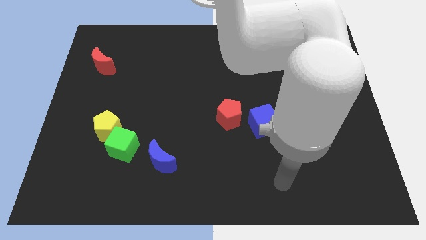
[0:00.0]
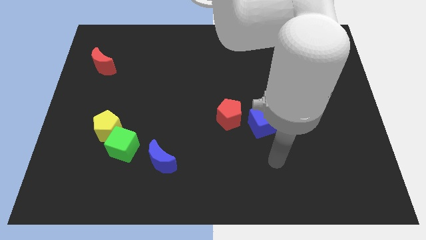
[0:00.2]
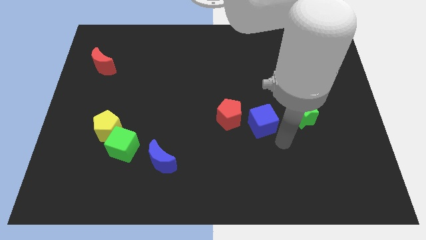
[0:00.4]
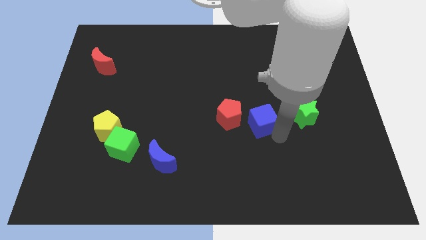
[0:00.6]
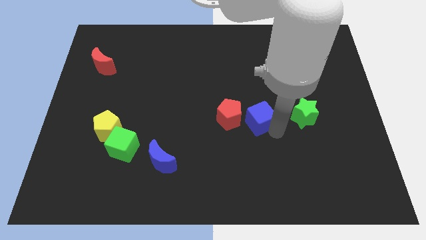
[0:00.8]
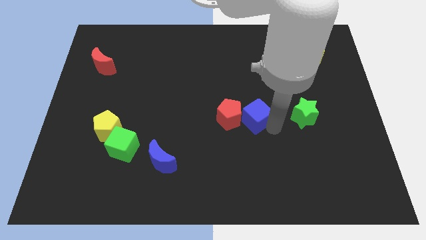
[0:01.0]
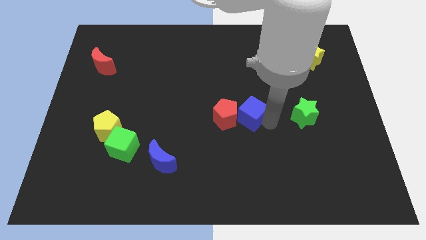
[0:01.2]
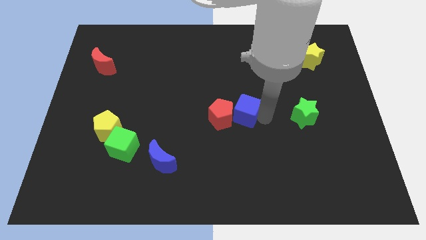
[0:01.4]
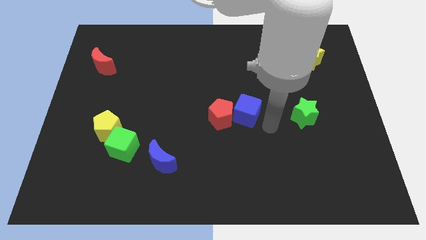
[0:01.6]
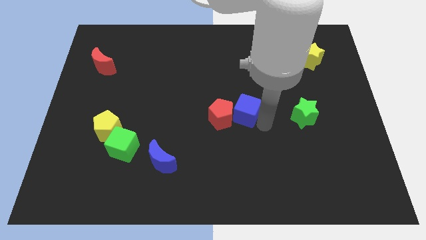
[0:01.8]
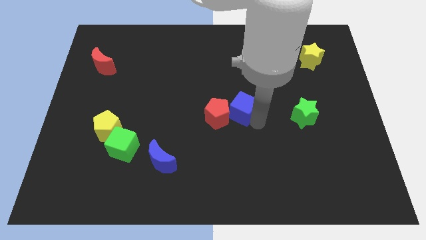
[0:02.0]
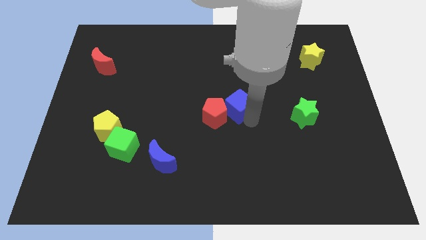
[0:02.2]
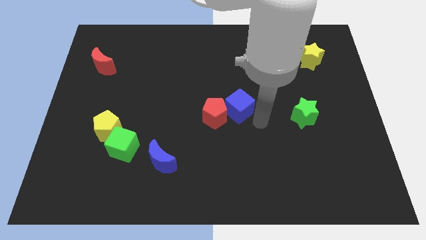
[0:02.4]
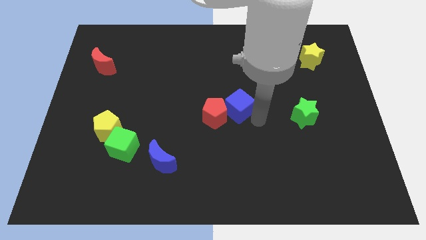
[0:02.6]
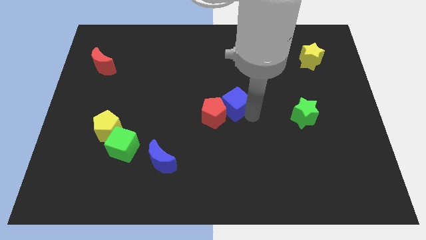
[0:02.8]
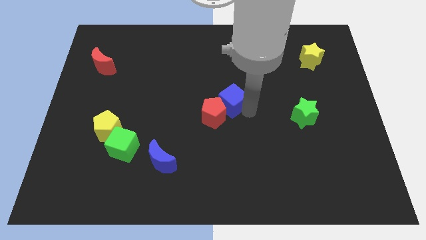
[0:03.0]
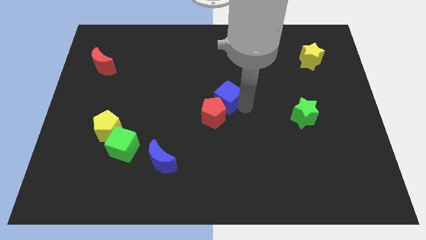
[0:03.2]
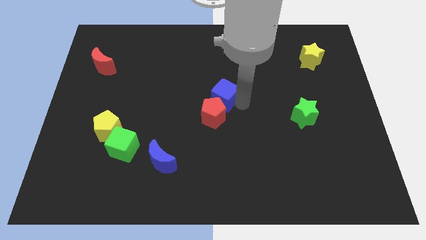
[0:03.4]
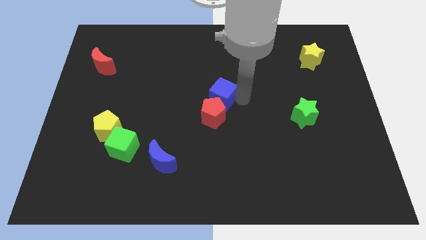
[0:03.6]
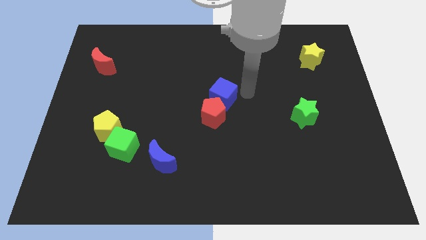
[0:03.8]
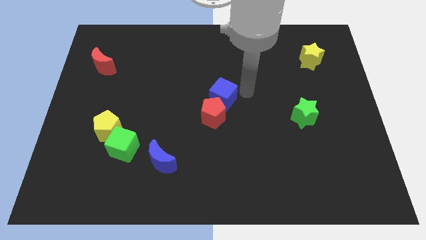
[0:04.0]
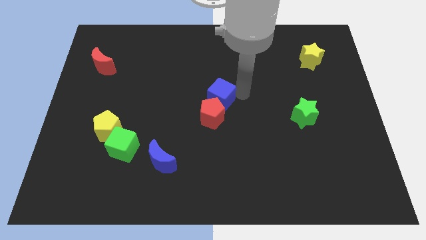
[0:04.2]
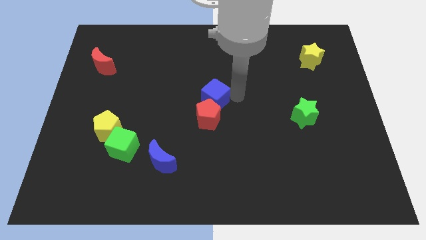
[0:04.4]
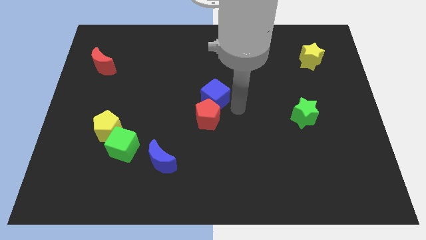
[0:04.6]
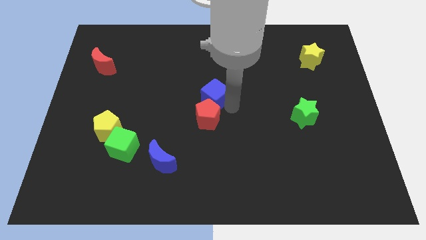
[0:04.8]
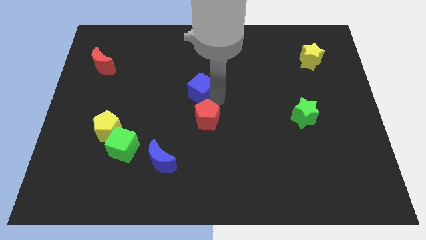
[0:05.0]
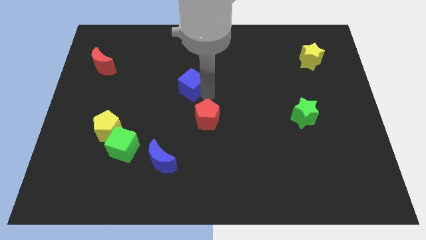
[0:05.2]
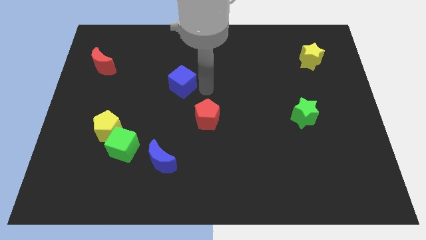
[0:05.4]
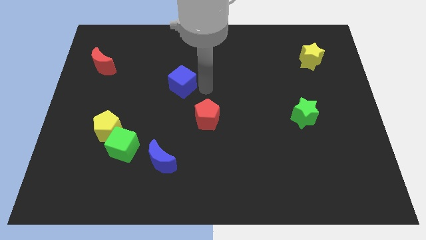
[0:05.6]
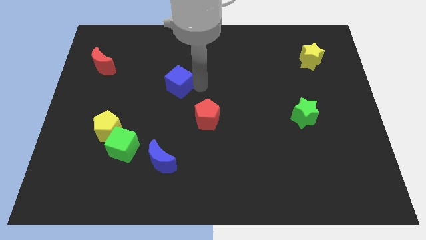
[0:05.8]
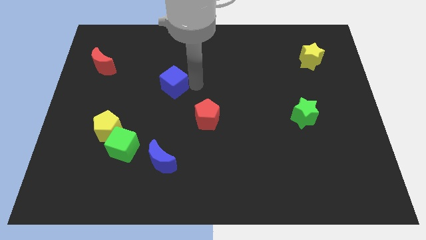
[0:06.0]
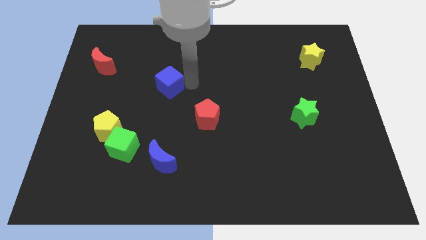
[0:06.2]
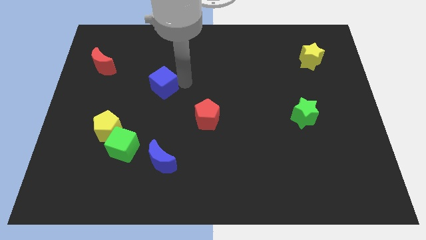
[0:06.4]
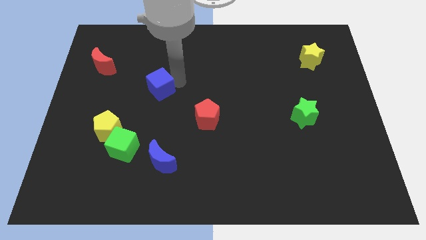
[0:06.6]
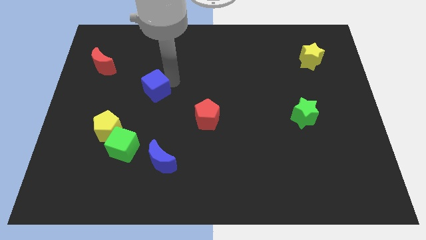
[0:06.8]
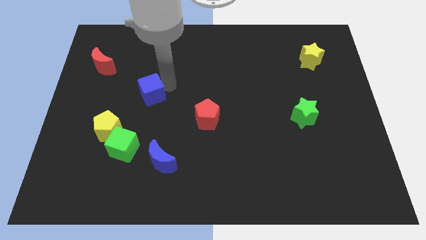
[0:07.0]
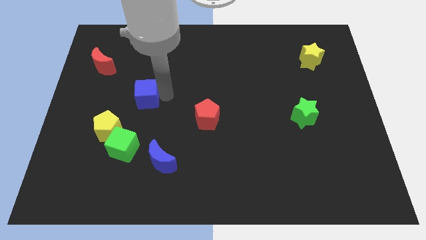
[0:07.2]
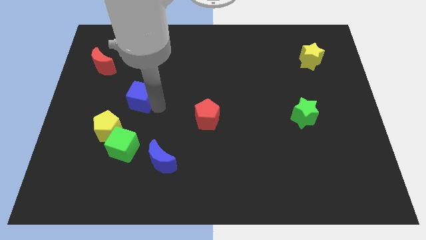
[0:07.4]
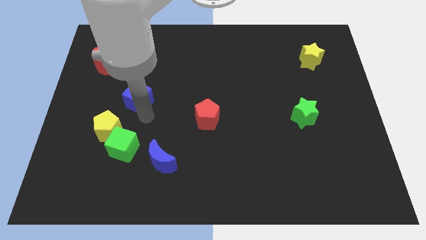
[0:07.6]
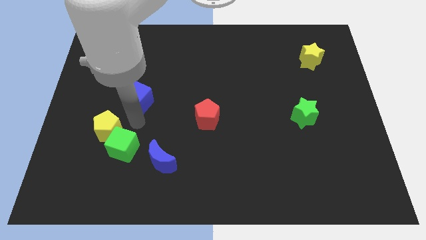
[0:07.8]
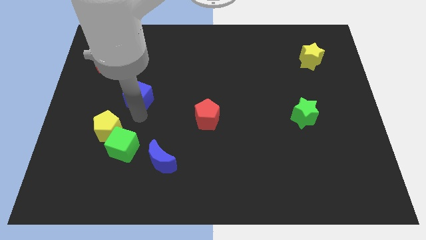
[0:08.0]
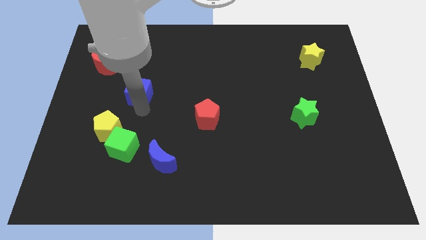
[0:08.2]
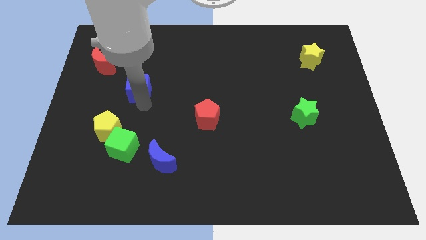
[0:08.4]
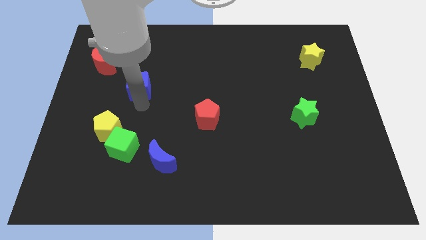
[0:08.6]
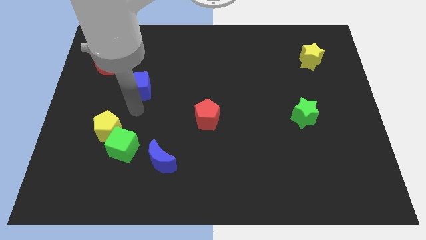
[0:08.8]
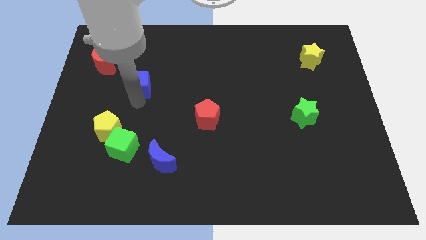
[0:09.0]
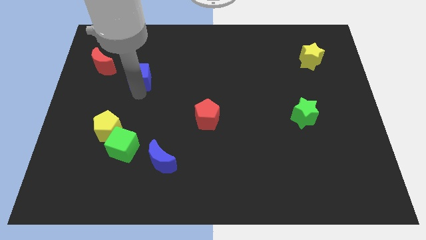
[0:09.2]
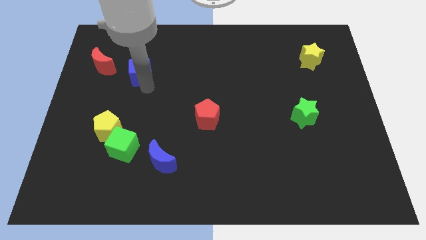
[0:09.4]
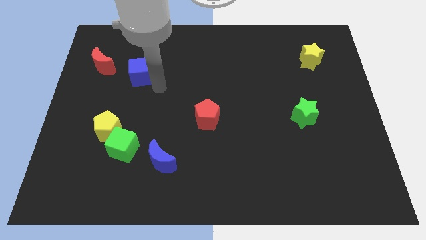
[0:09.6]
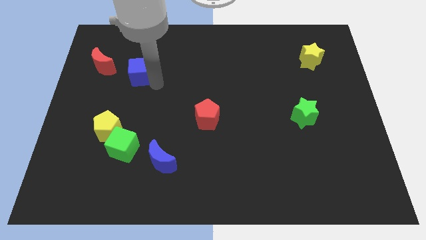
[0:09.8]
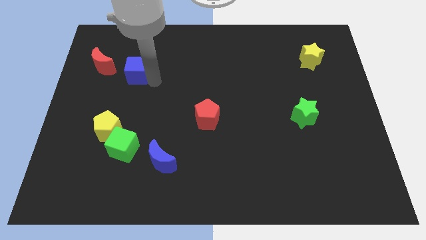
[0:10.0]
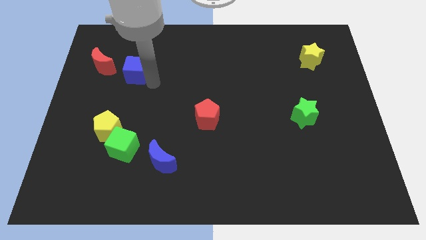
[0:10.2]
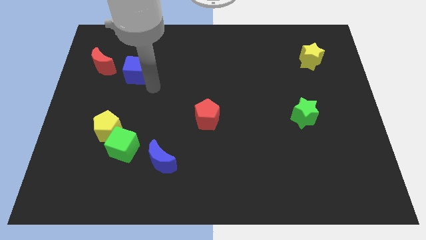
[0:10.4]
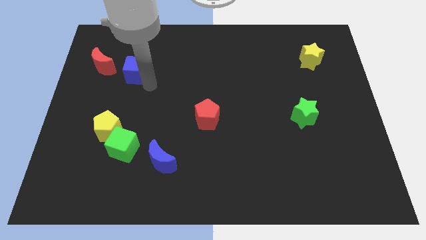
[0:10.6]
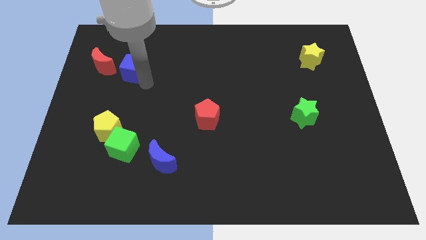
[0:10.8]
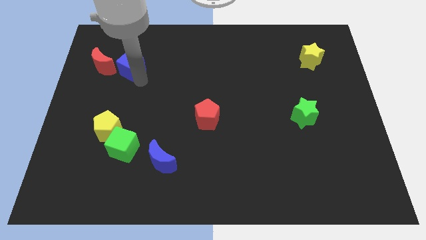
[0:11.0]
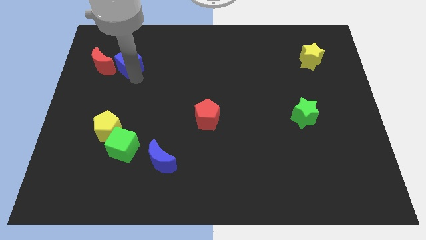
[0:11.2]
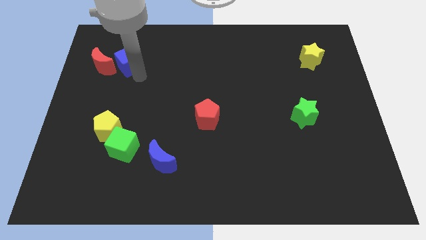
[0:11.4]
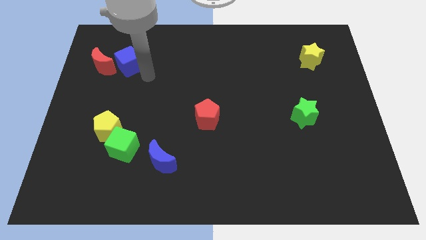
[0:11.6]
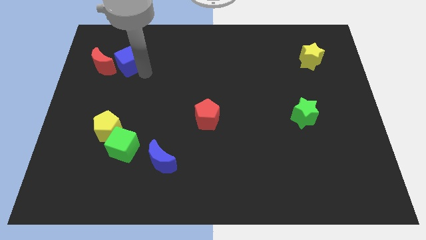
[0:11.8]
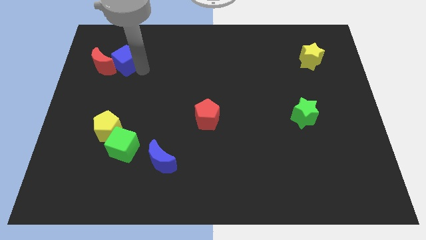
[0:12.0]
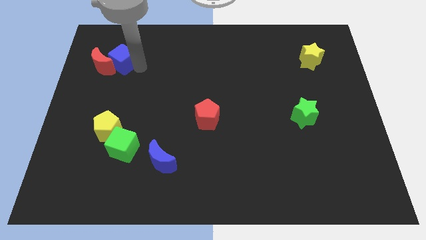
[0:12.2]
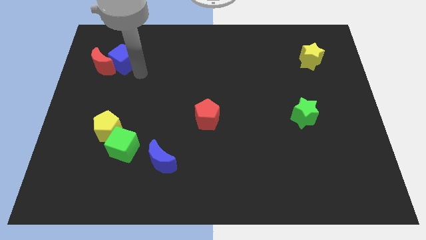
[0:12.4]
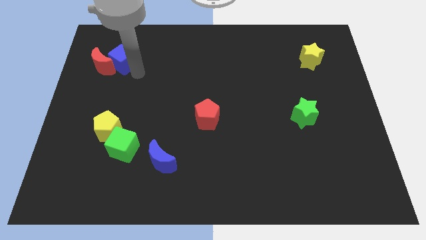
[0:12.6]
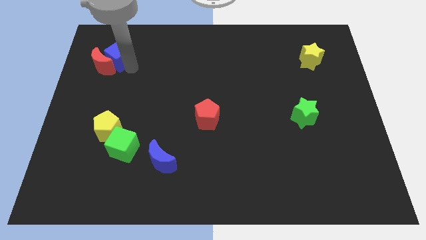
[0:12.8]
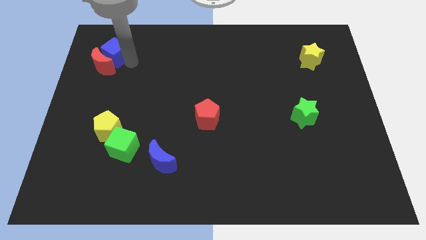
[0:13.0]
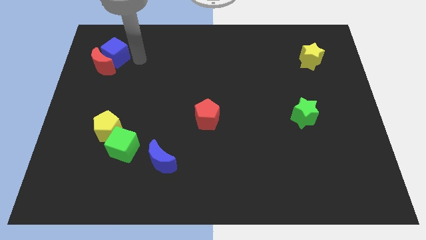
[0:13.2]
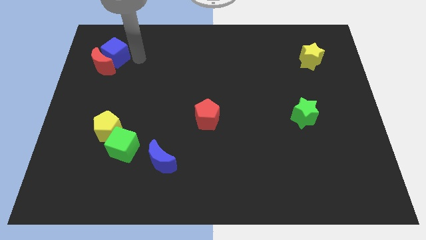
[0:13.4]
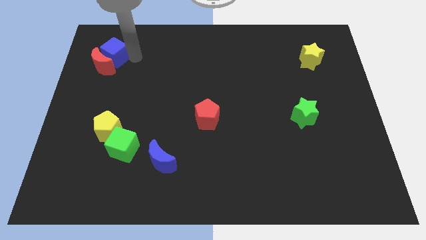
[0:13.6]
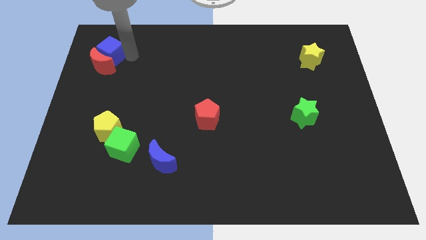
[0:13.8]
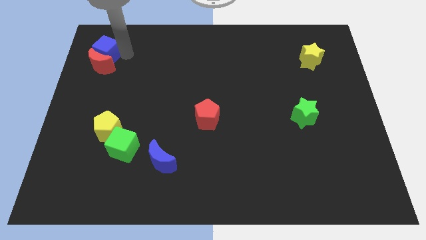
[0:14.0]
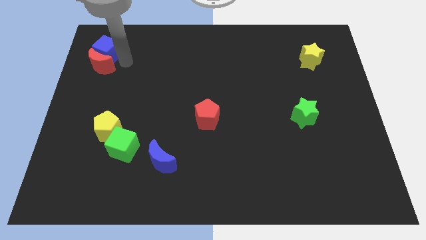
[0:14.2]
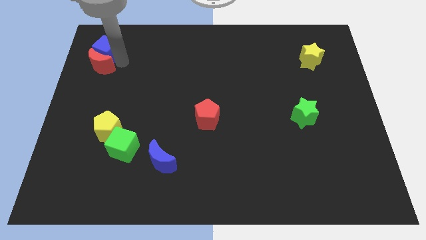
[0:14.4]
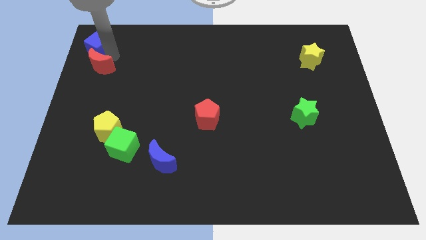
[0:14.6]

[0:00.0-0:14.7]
move the blue cube to the top left
